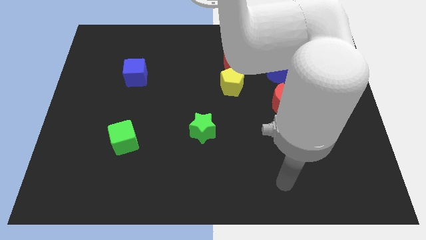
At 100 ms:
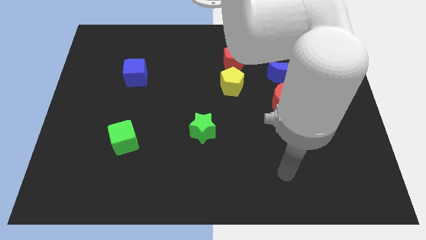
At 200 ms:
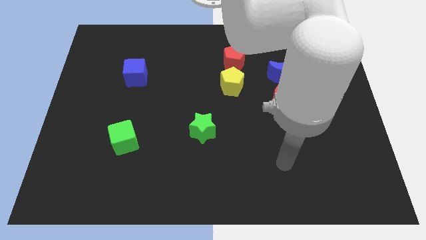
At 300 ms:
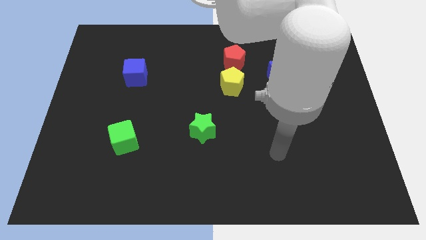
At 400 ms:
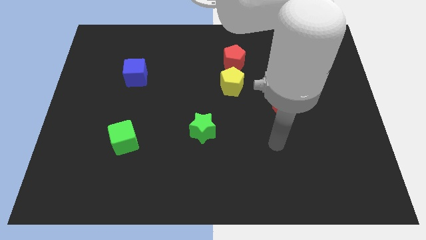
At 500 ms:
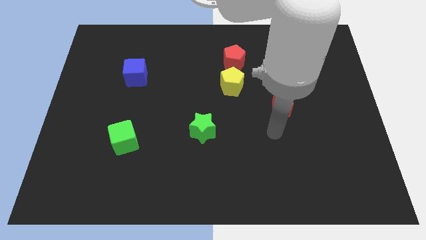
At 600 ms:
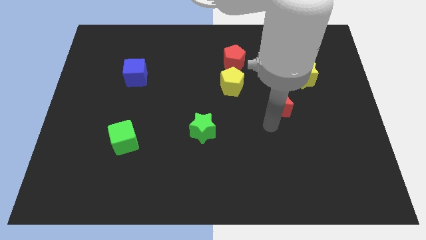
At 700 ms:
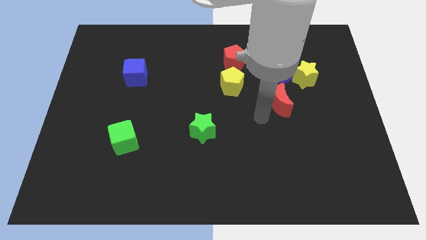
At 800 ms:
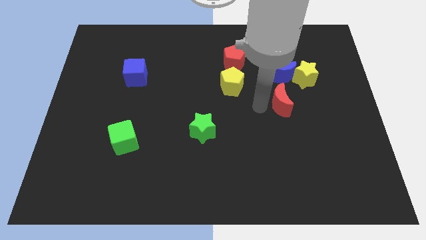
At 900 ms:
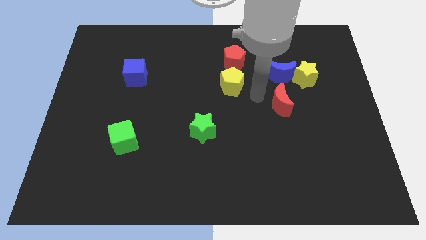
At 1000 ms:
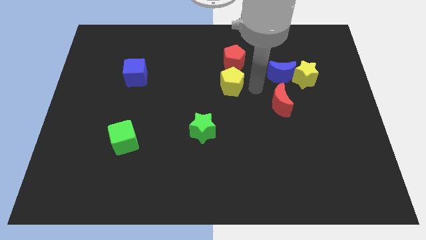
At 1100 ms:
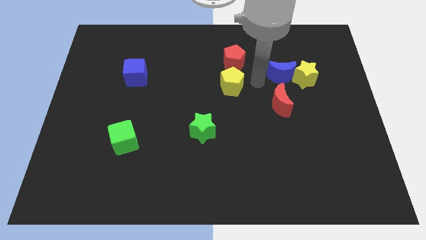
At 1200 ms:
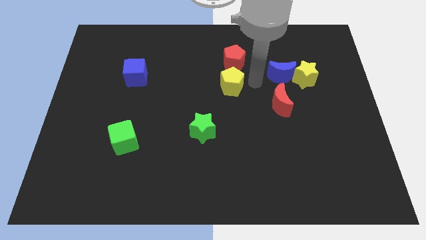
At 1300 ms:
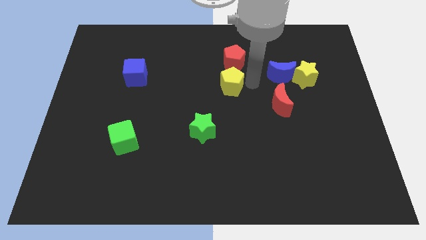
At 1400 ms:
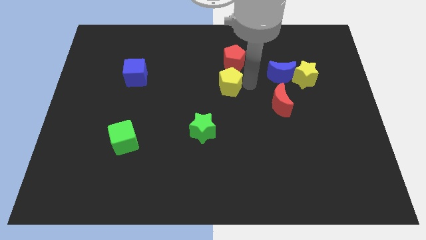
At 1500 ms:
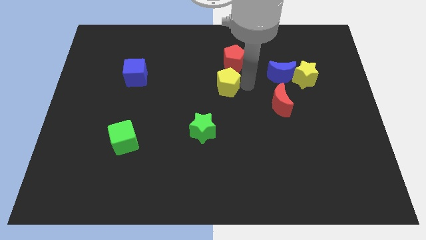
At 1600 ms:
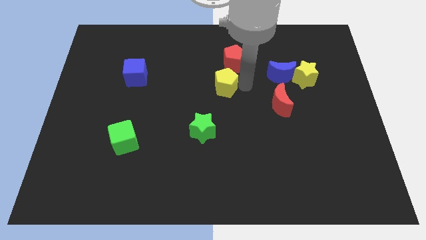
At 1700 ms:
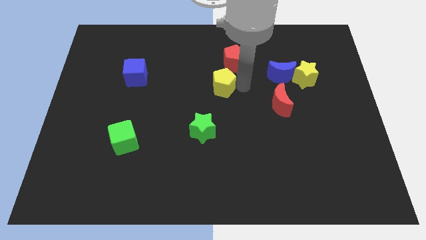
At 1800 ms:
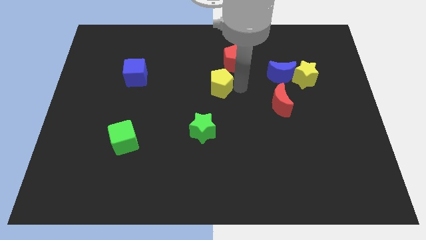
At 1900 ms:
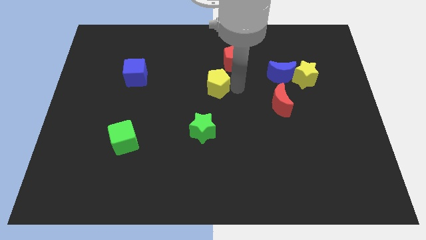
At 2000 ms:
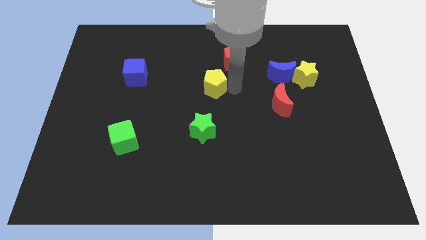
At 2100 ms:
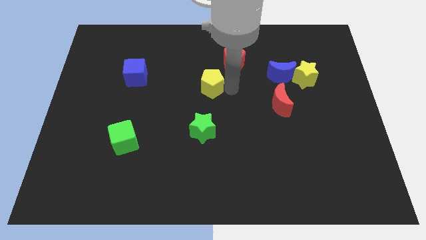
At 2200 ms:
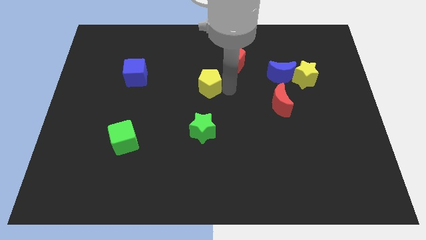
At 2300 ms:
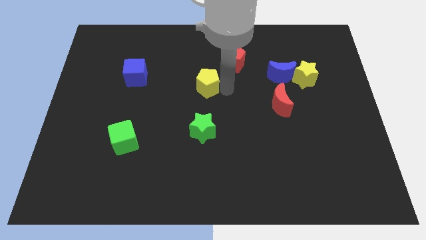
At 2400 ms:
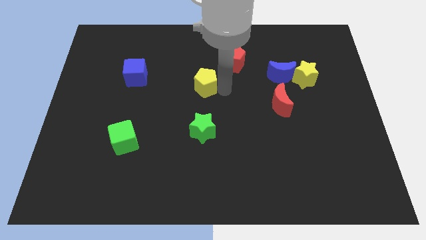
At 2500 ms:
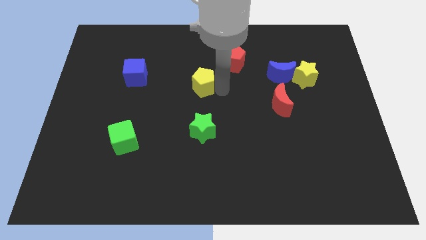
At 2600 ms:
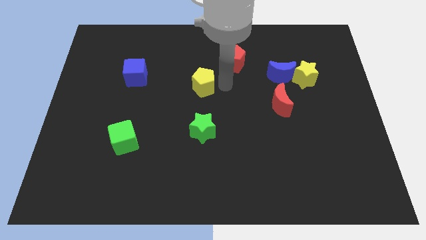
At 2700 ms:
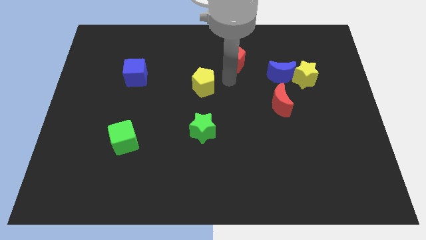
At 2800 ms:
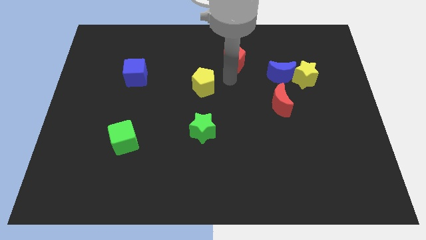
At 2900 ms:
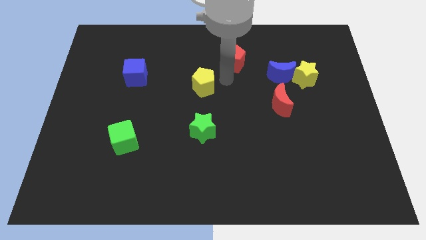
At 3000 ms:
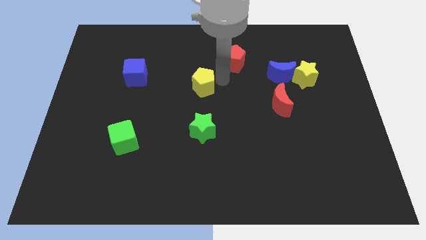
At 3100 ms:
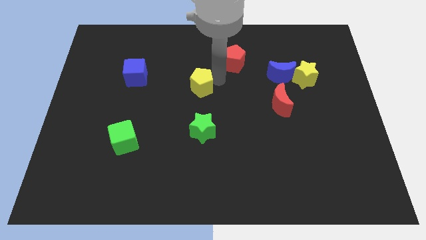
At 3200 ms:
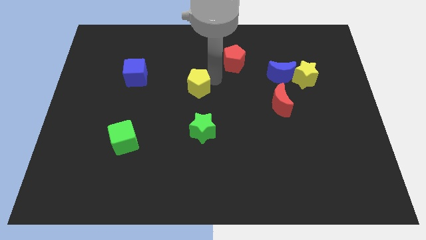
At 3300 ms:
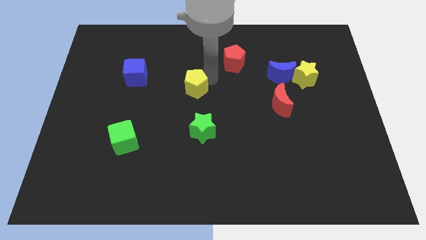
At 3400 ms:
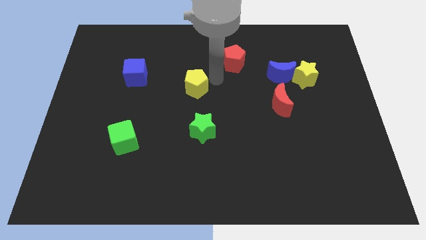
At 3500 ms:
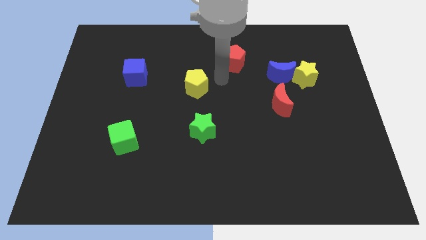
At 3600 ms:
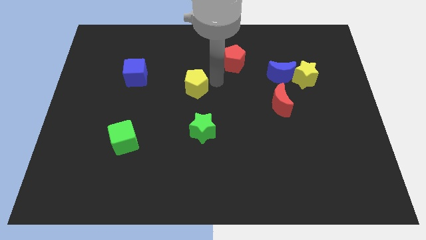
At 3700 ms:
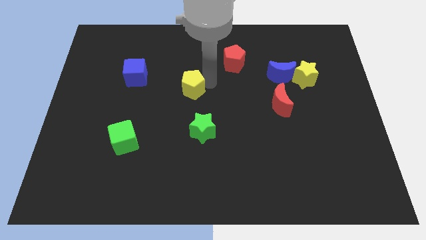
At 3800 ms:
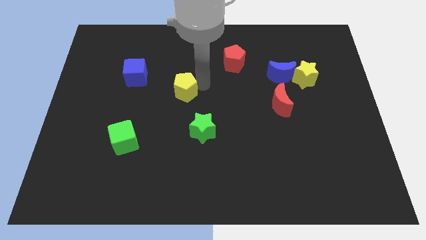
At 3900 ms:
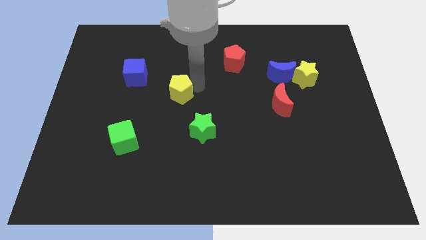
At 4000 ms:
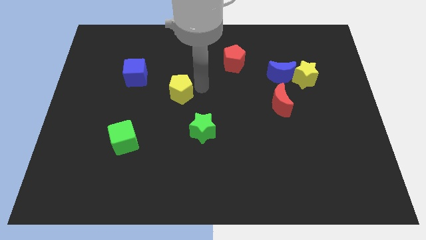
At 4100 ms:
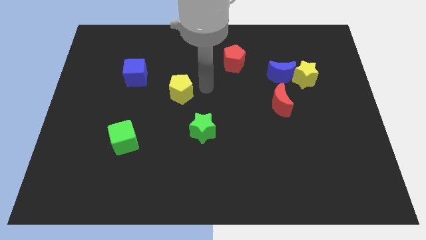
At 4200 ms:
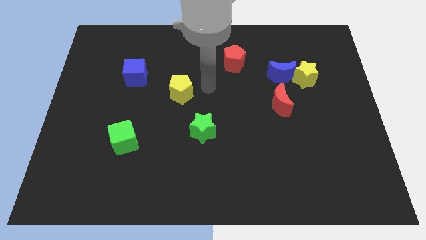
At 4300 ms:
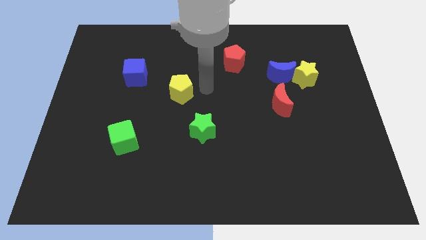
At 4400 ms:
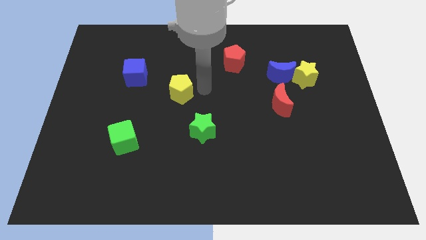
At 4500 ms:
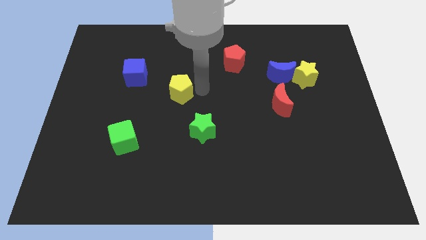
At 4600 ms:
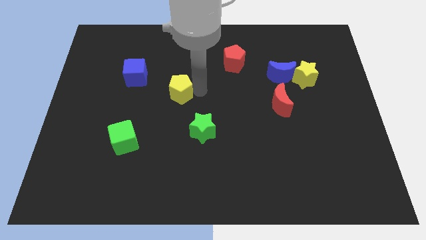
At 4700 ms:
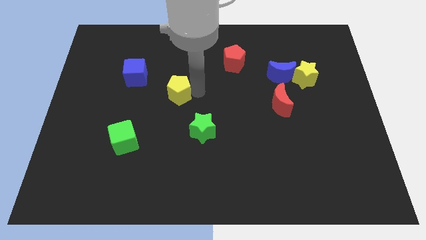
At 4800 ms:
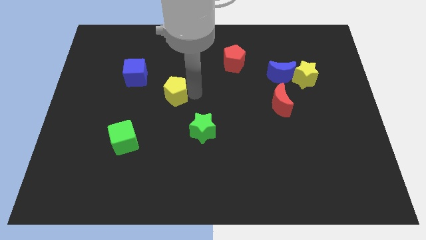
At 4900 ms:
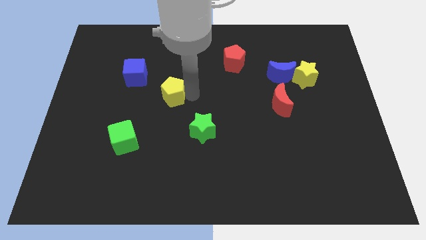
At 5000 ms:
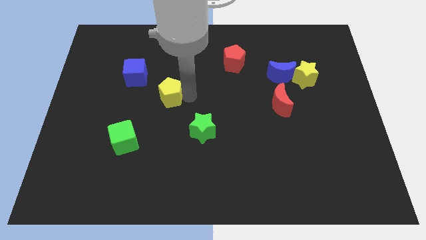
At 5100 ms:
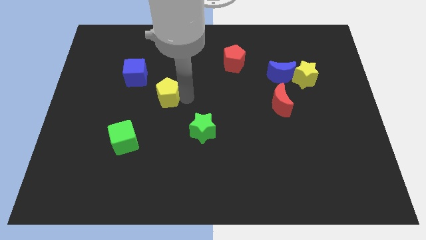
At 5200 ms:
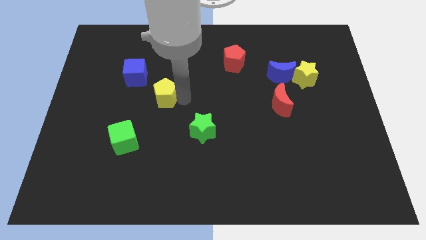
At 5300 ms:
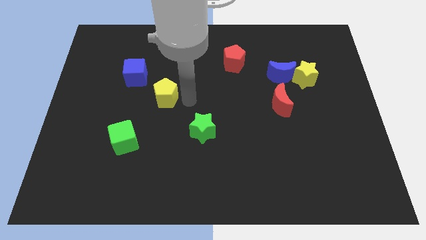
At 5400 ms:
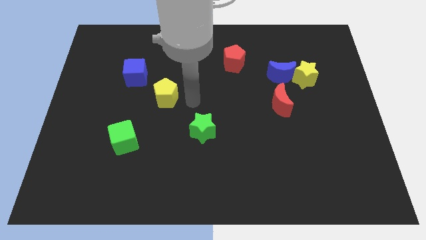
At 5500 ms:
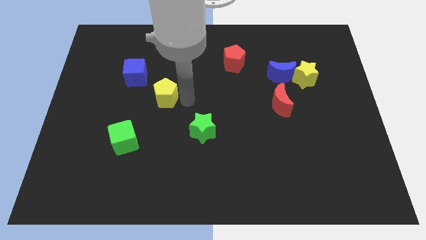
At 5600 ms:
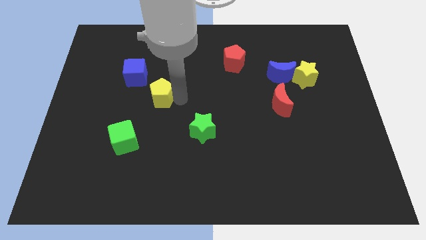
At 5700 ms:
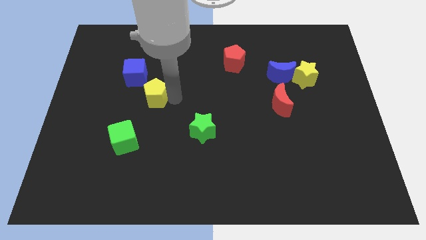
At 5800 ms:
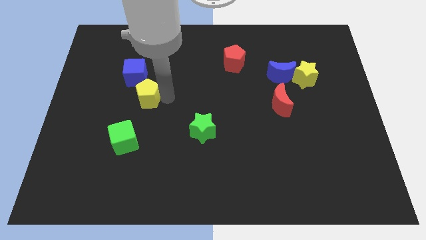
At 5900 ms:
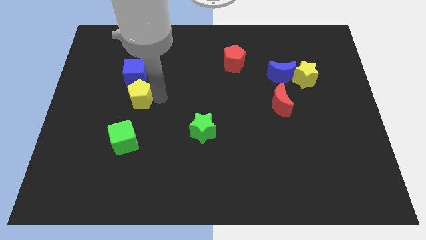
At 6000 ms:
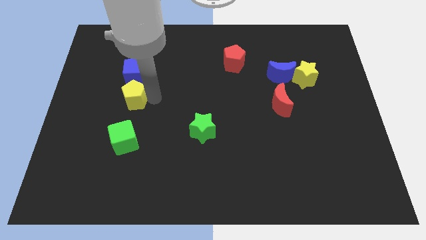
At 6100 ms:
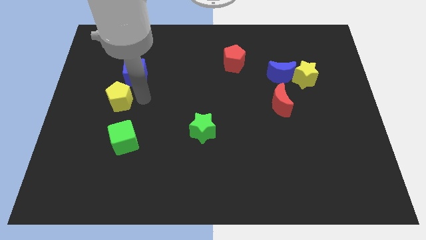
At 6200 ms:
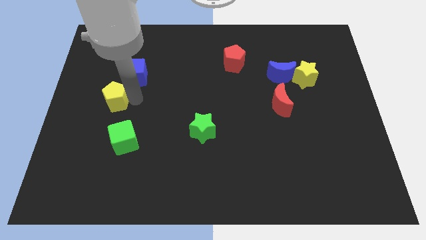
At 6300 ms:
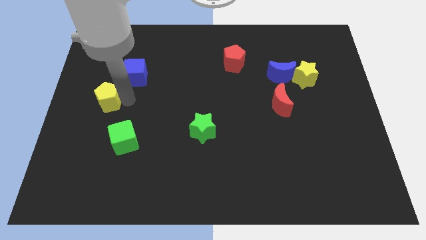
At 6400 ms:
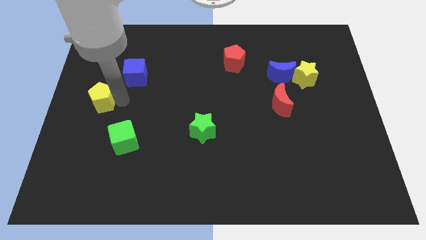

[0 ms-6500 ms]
move the yellow pentagon to the center left

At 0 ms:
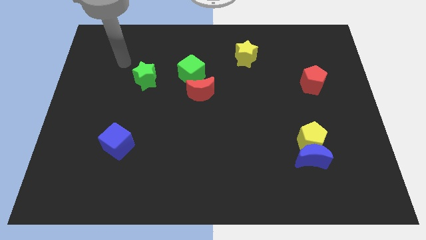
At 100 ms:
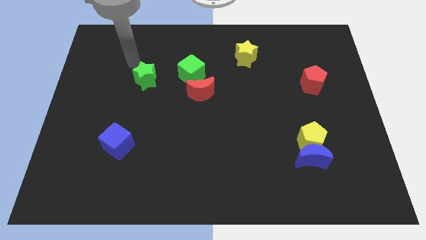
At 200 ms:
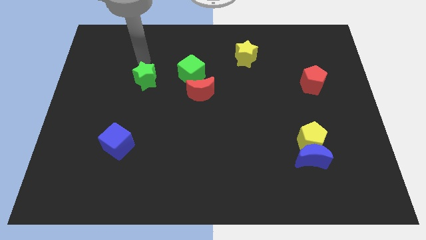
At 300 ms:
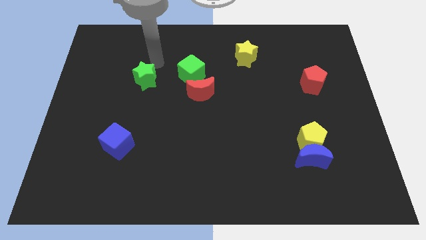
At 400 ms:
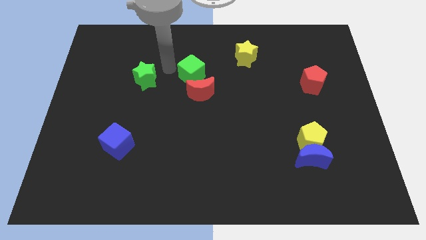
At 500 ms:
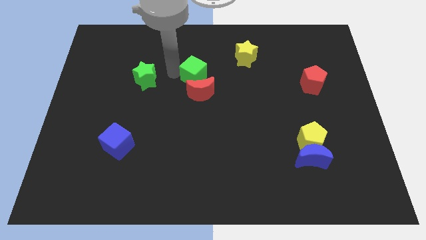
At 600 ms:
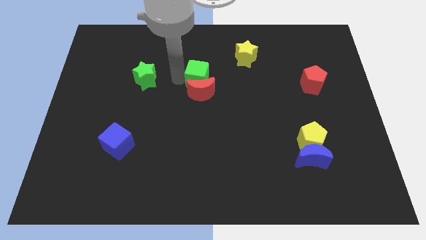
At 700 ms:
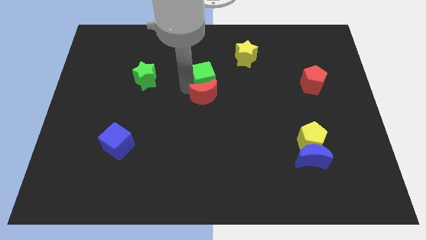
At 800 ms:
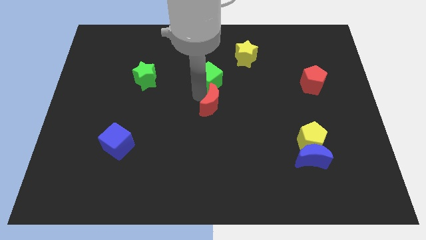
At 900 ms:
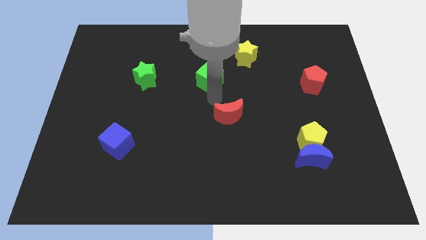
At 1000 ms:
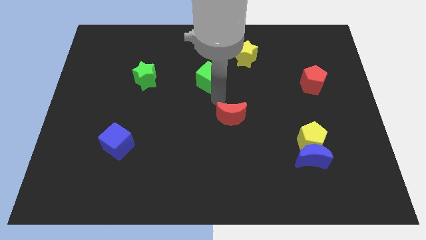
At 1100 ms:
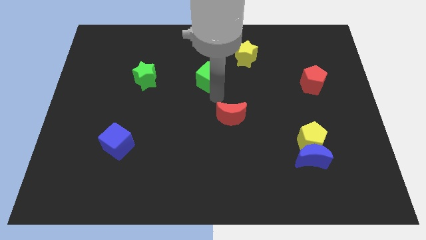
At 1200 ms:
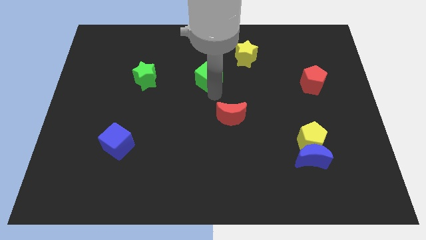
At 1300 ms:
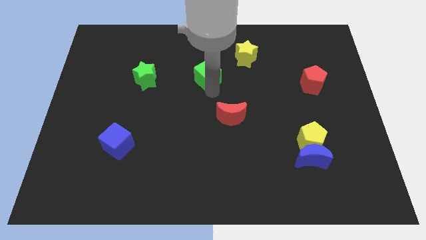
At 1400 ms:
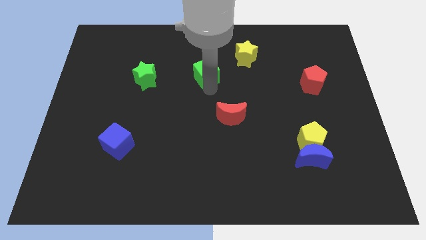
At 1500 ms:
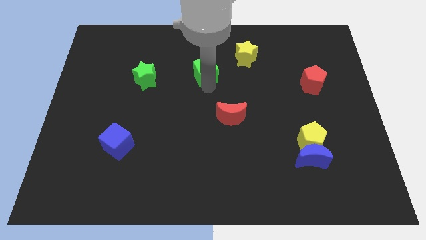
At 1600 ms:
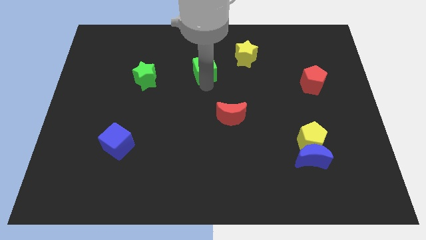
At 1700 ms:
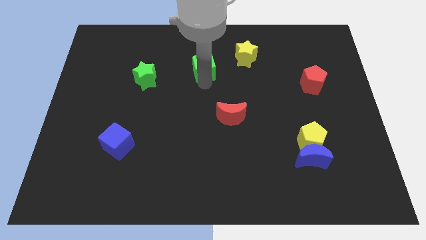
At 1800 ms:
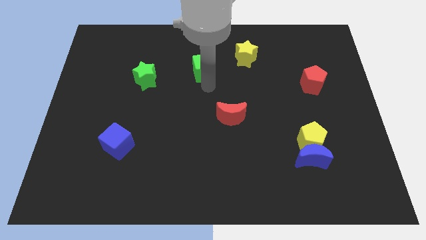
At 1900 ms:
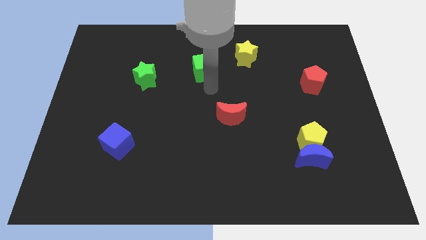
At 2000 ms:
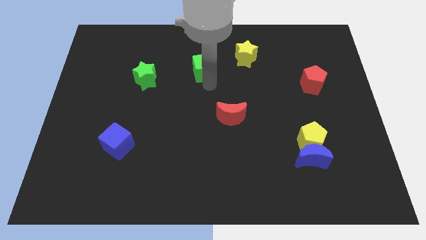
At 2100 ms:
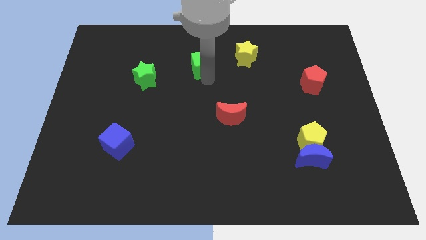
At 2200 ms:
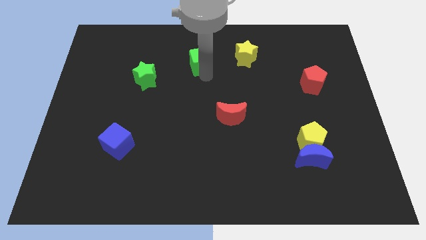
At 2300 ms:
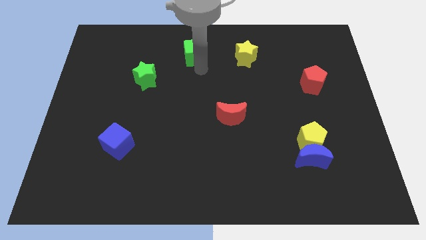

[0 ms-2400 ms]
push the green cube to the top side
